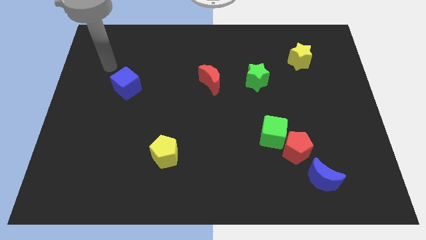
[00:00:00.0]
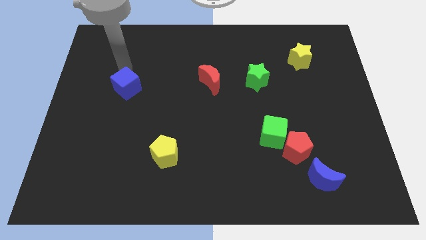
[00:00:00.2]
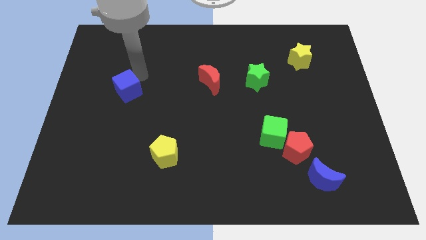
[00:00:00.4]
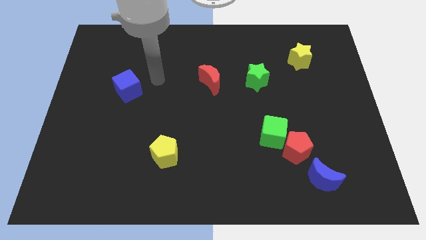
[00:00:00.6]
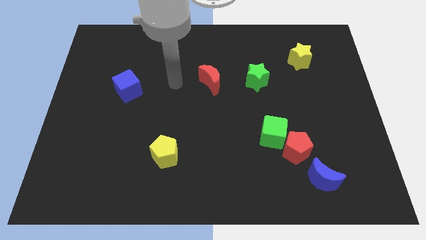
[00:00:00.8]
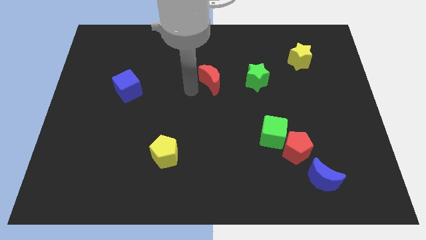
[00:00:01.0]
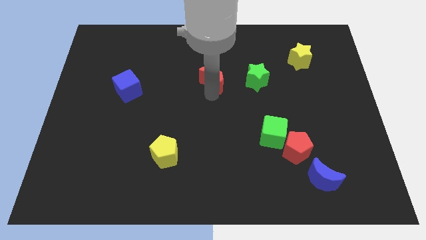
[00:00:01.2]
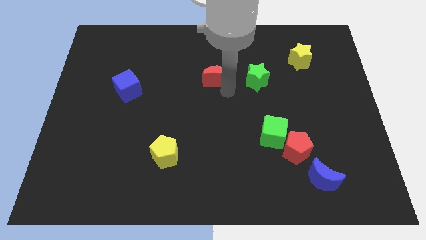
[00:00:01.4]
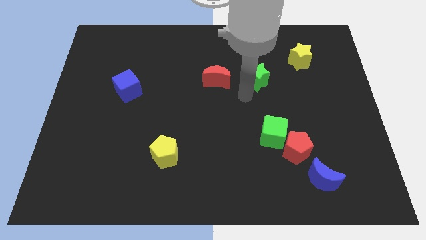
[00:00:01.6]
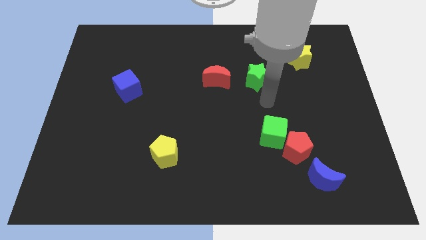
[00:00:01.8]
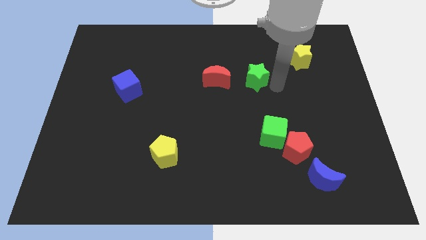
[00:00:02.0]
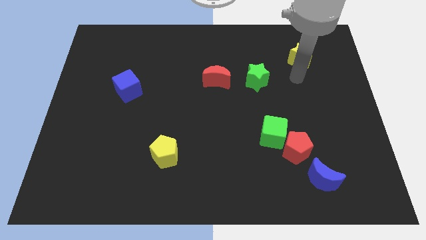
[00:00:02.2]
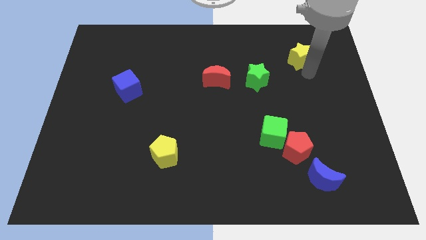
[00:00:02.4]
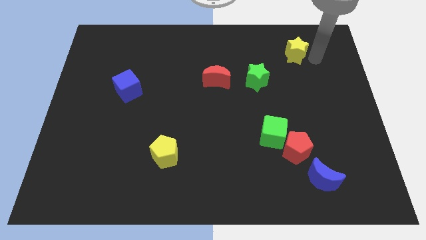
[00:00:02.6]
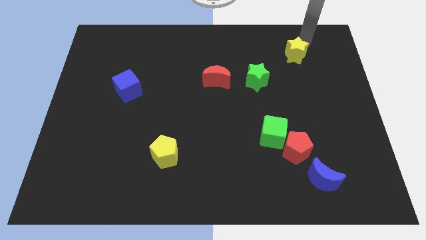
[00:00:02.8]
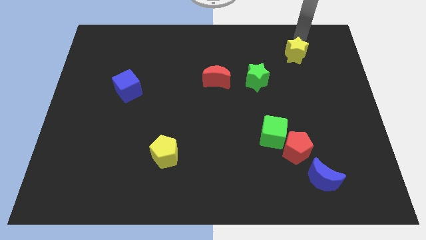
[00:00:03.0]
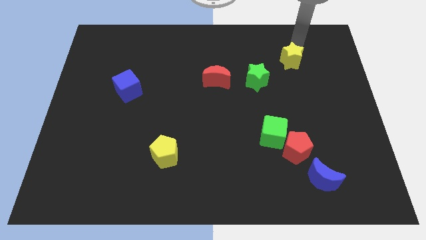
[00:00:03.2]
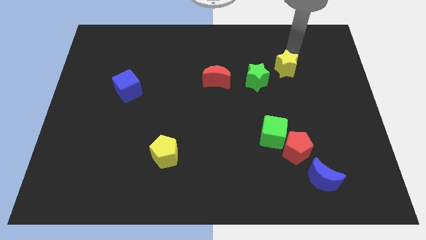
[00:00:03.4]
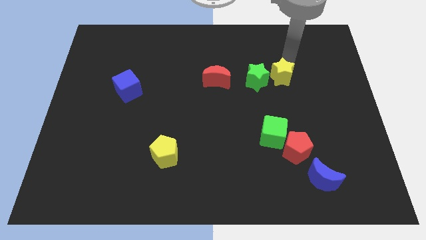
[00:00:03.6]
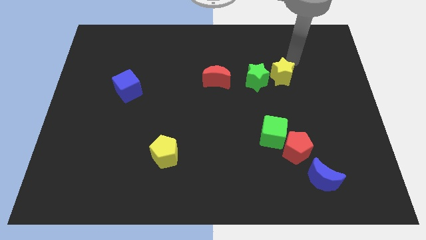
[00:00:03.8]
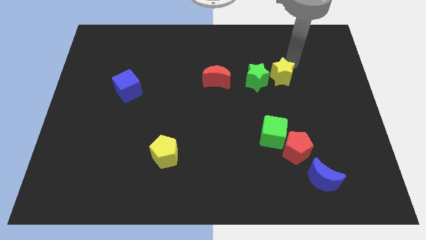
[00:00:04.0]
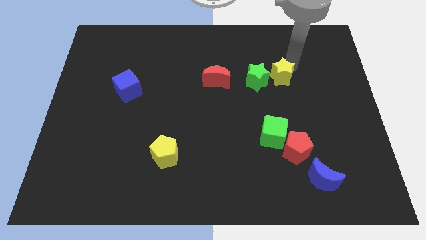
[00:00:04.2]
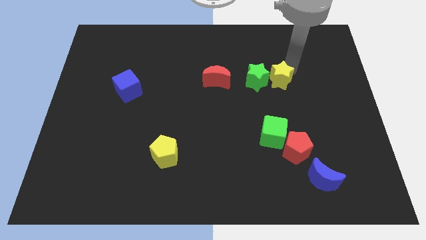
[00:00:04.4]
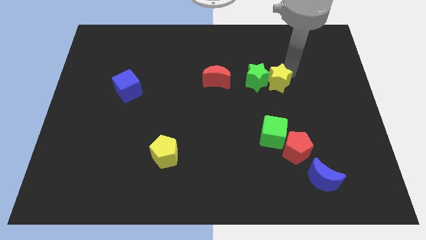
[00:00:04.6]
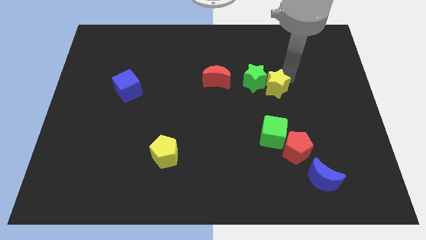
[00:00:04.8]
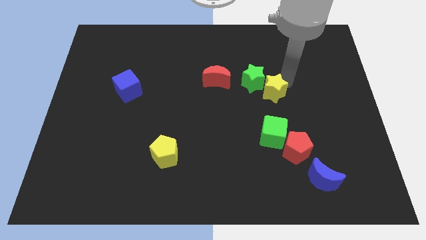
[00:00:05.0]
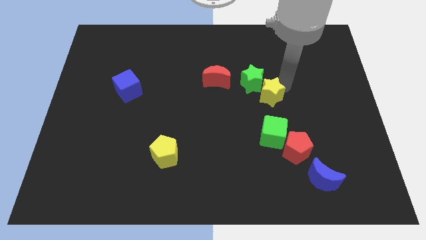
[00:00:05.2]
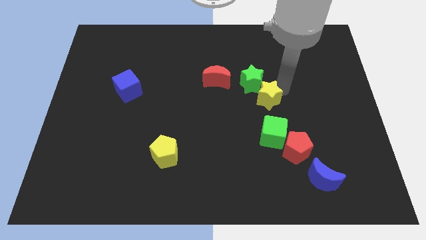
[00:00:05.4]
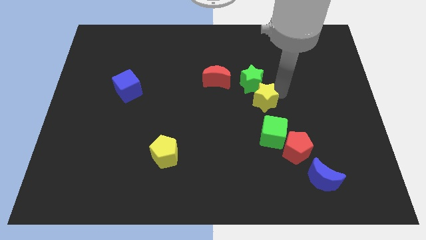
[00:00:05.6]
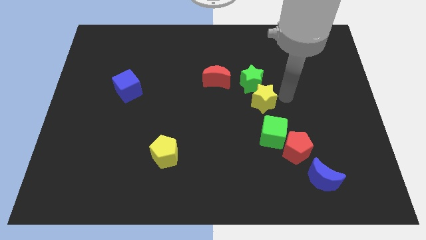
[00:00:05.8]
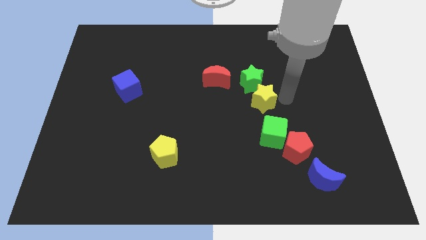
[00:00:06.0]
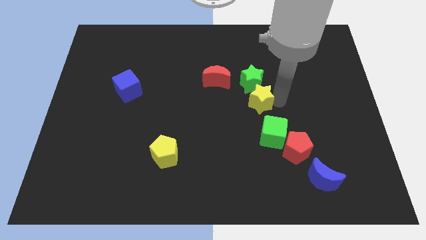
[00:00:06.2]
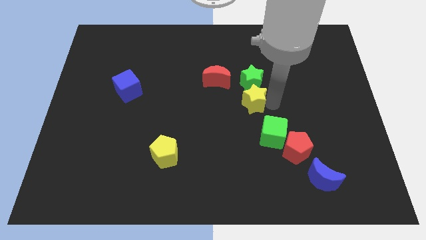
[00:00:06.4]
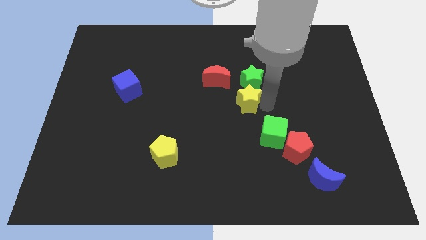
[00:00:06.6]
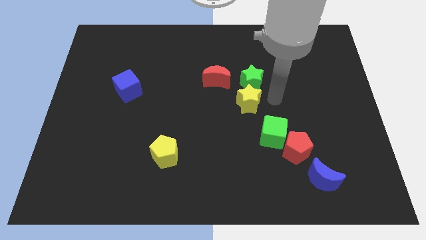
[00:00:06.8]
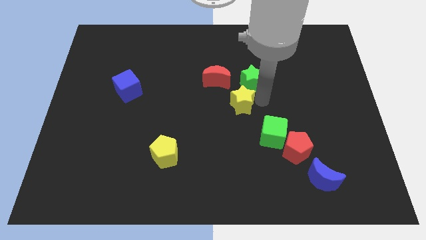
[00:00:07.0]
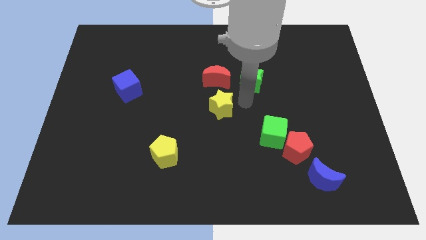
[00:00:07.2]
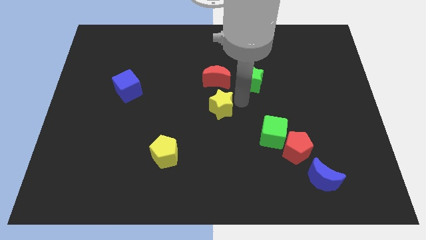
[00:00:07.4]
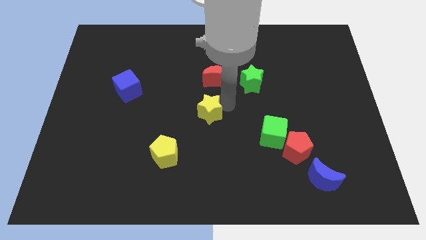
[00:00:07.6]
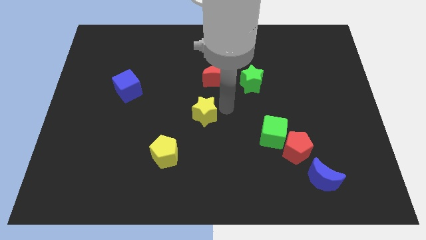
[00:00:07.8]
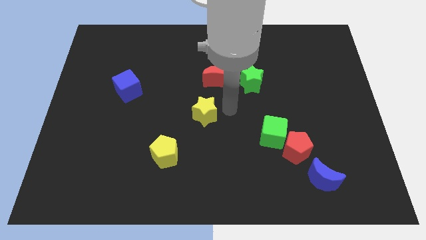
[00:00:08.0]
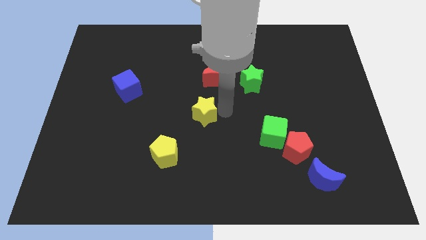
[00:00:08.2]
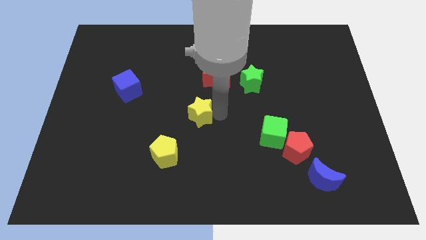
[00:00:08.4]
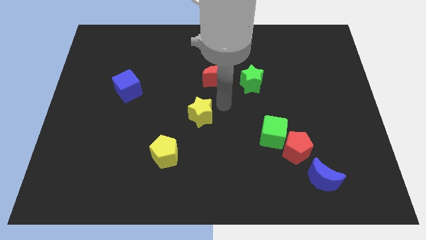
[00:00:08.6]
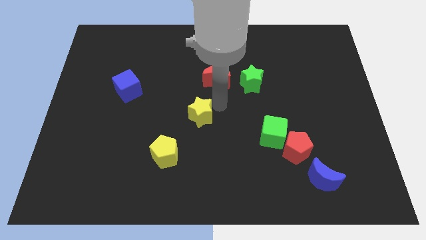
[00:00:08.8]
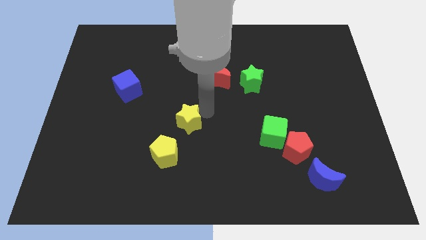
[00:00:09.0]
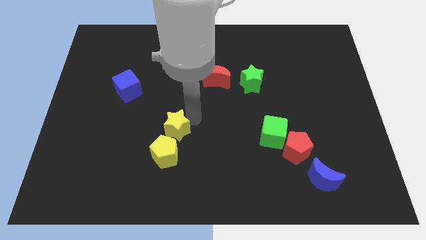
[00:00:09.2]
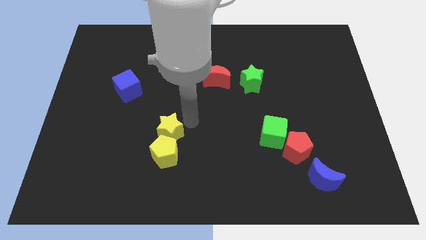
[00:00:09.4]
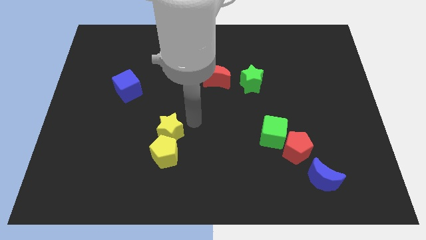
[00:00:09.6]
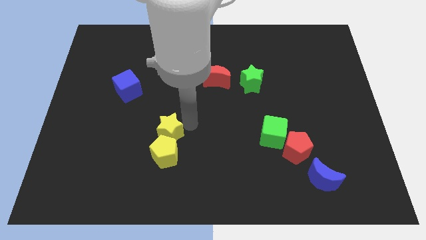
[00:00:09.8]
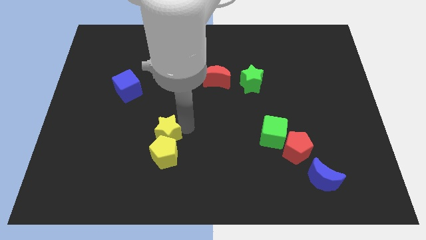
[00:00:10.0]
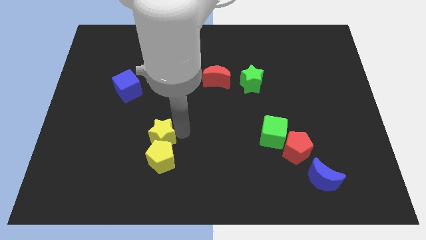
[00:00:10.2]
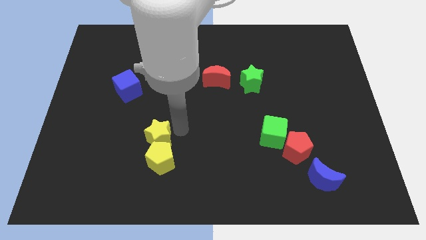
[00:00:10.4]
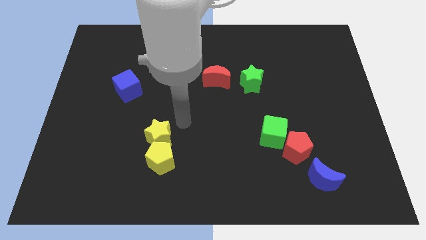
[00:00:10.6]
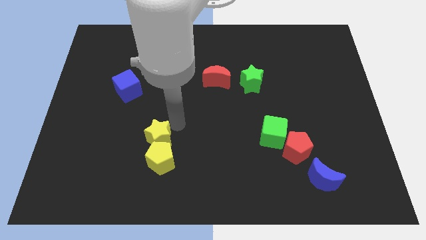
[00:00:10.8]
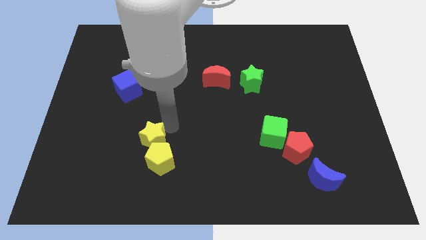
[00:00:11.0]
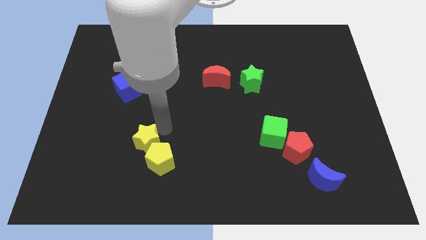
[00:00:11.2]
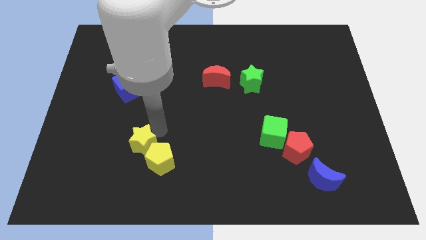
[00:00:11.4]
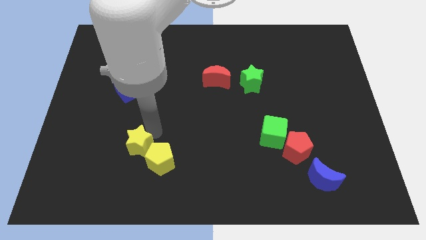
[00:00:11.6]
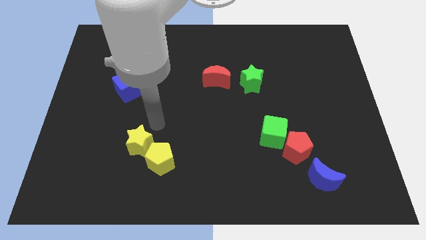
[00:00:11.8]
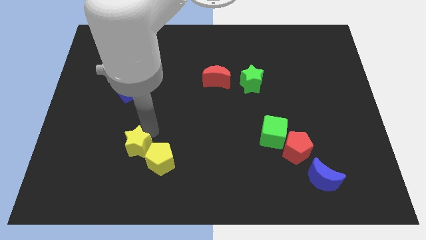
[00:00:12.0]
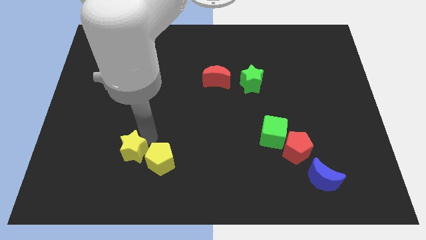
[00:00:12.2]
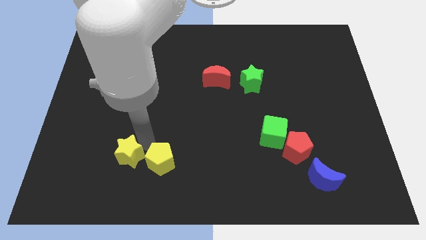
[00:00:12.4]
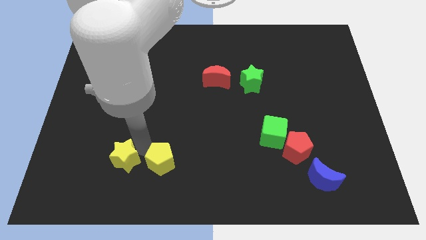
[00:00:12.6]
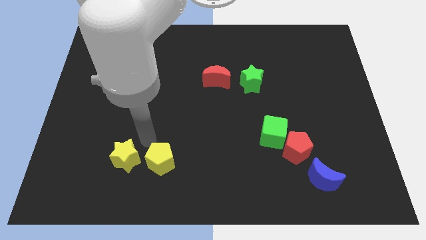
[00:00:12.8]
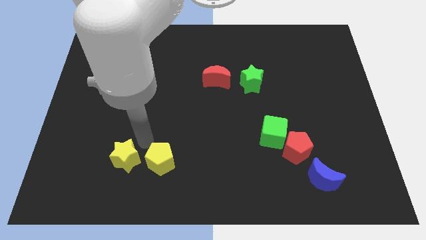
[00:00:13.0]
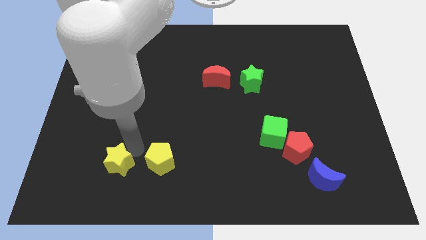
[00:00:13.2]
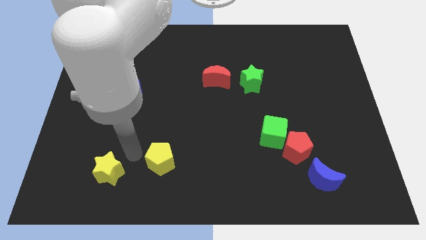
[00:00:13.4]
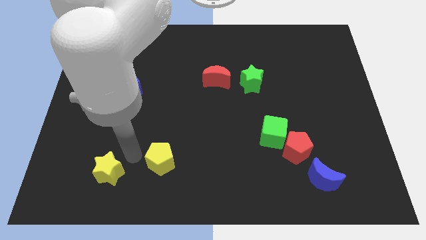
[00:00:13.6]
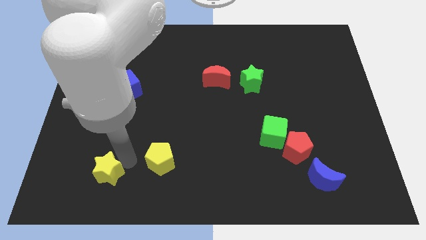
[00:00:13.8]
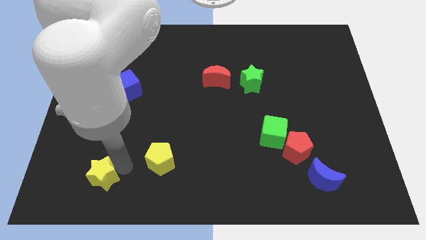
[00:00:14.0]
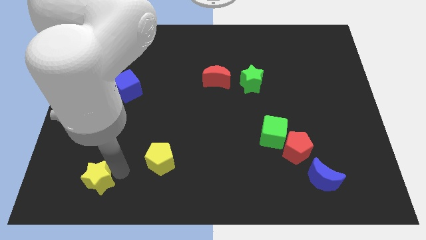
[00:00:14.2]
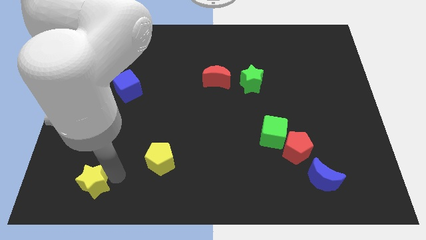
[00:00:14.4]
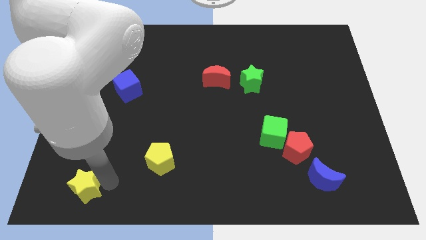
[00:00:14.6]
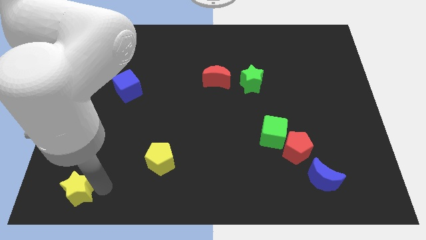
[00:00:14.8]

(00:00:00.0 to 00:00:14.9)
slide the yellow star to the bottom left
